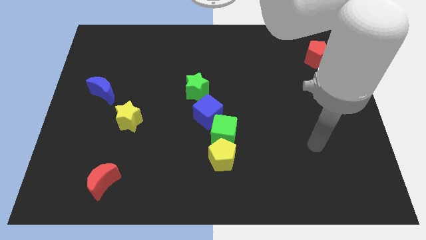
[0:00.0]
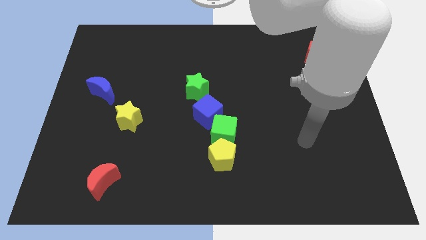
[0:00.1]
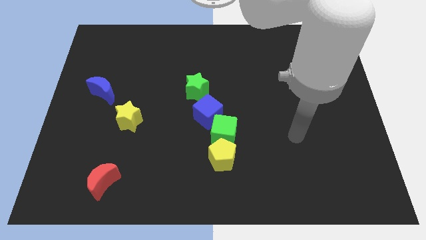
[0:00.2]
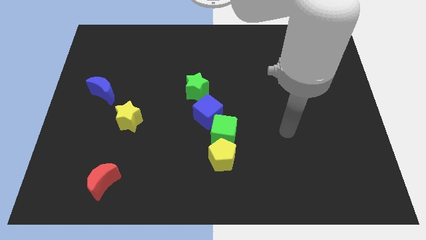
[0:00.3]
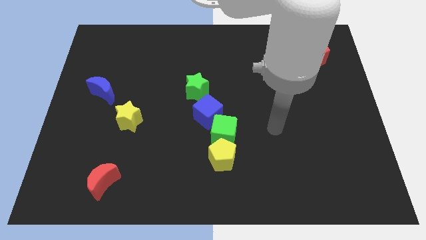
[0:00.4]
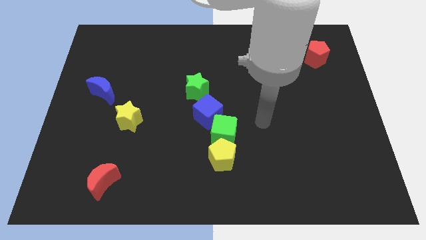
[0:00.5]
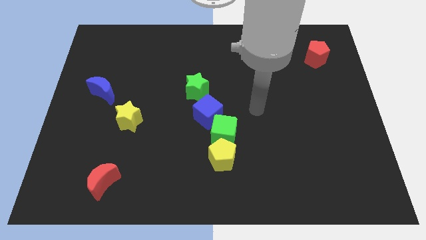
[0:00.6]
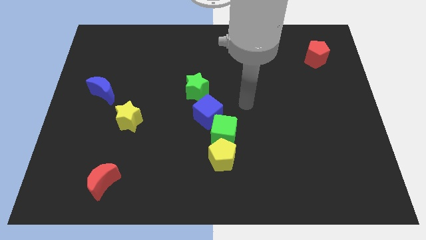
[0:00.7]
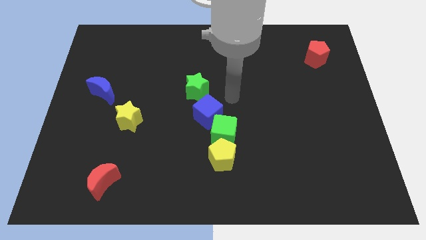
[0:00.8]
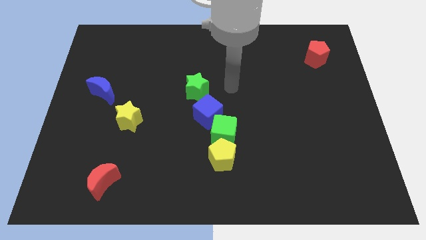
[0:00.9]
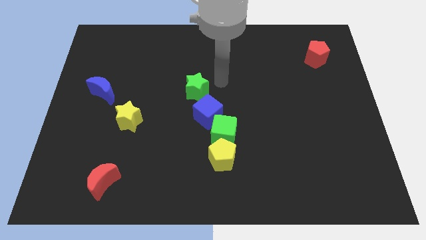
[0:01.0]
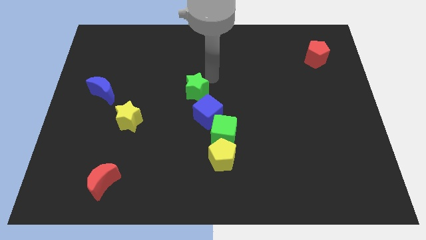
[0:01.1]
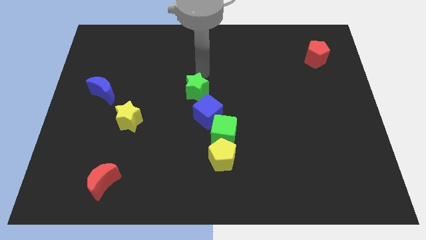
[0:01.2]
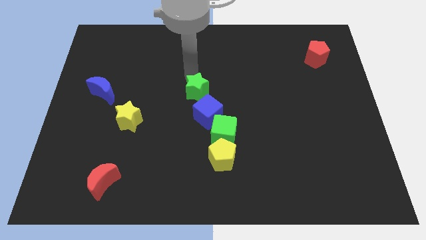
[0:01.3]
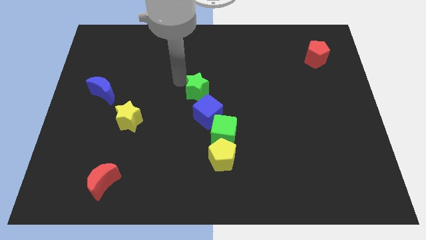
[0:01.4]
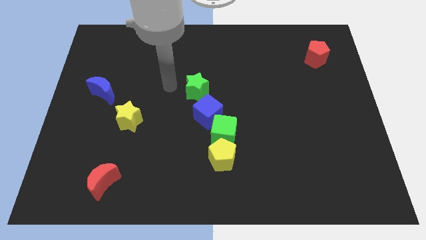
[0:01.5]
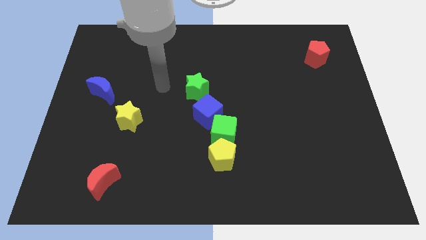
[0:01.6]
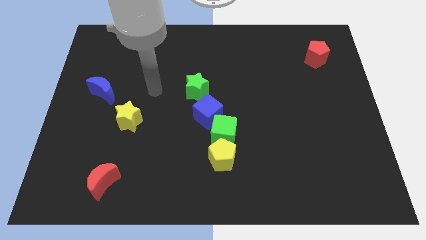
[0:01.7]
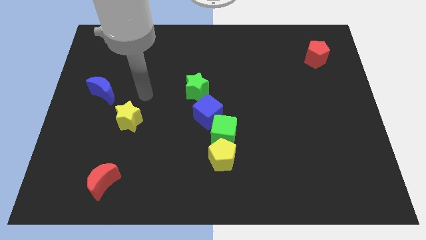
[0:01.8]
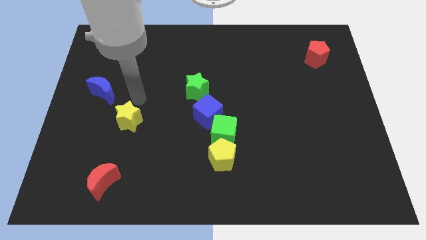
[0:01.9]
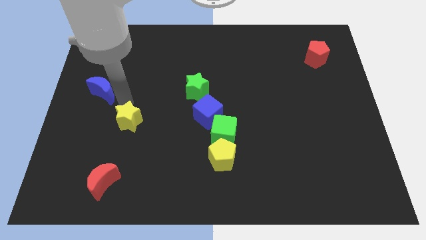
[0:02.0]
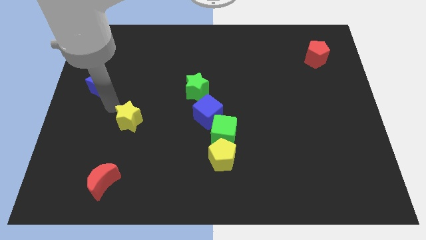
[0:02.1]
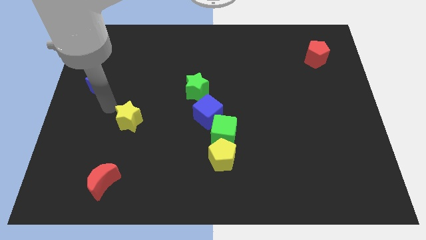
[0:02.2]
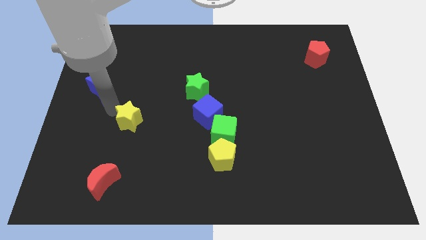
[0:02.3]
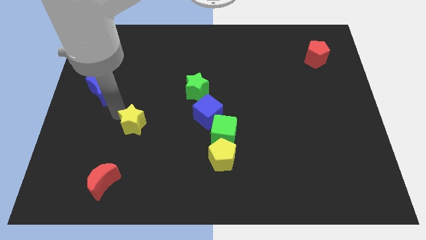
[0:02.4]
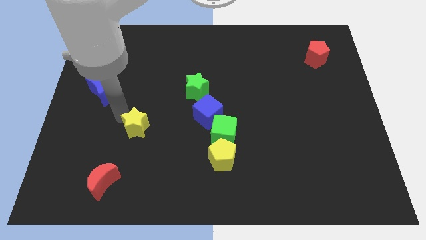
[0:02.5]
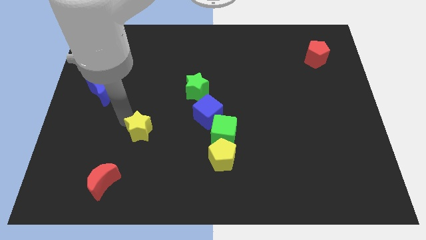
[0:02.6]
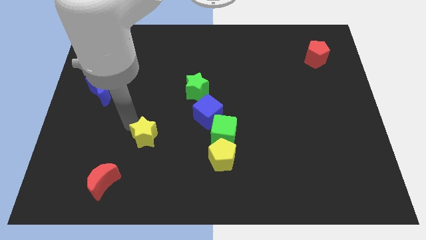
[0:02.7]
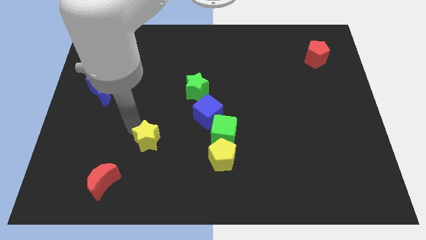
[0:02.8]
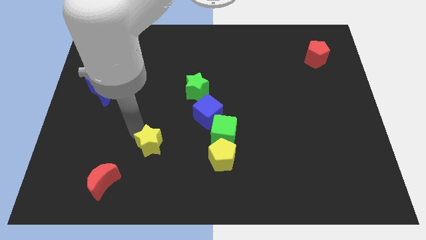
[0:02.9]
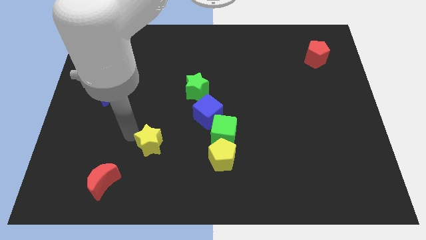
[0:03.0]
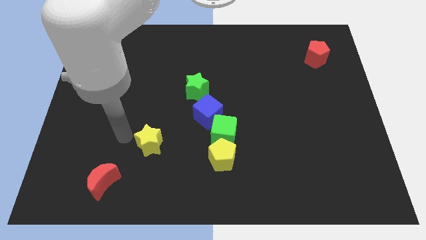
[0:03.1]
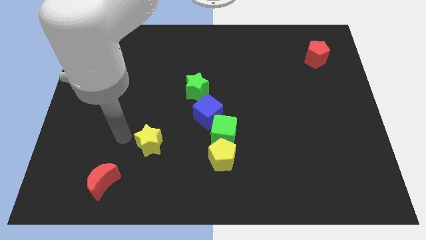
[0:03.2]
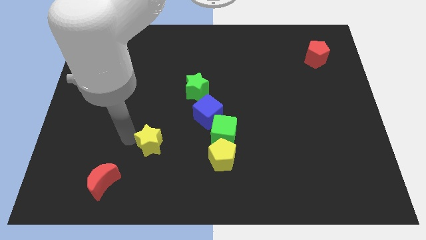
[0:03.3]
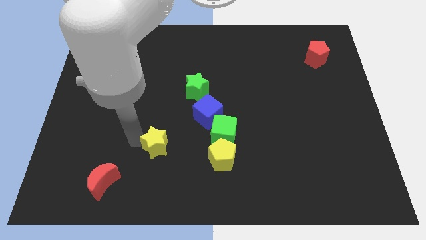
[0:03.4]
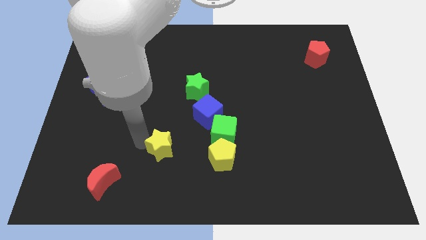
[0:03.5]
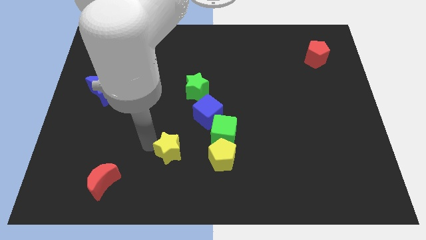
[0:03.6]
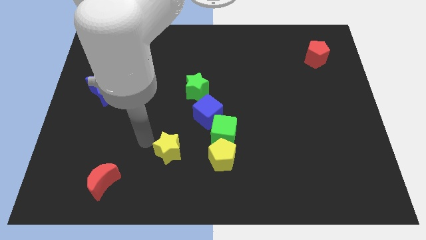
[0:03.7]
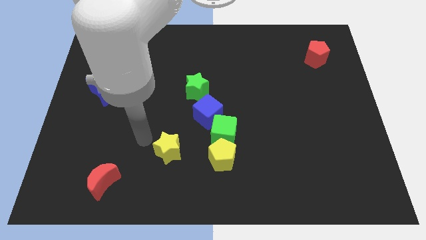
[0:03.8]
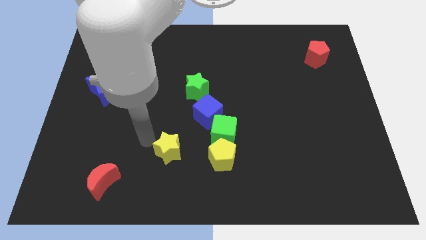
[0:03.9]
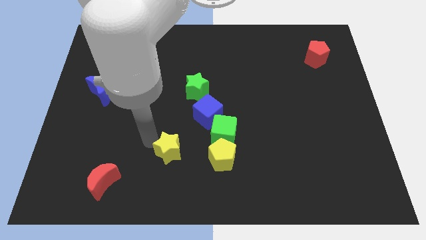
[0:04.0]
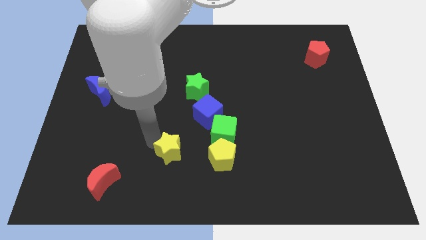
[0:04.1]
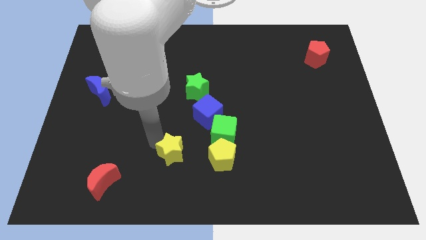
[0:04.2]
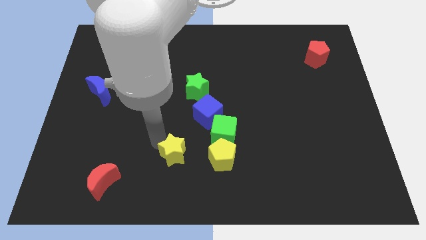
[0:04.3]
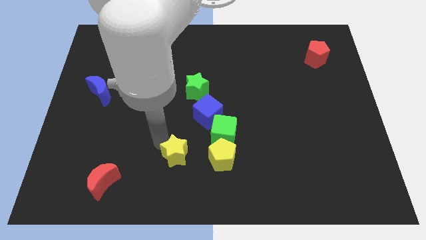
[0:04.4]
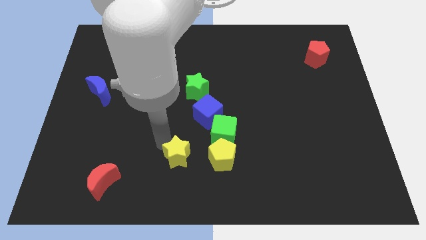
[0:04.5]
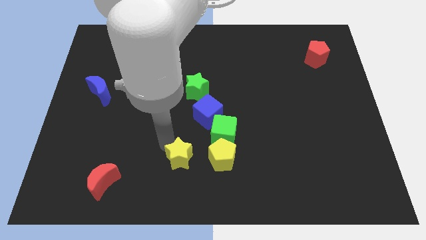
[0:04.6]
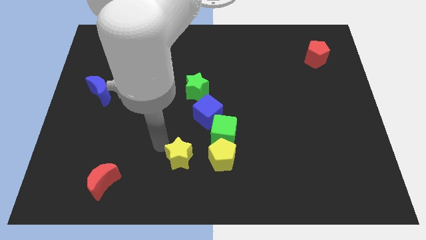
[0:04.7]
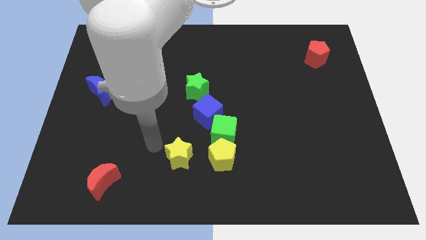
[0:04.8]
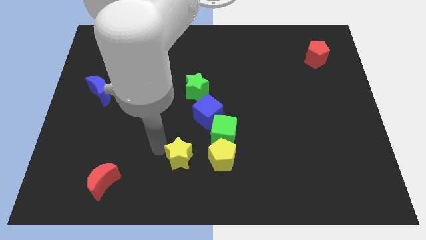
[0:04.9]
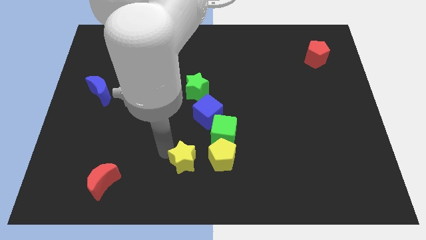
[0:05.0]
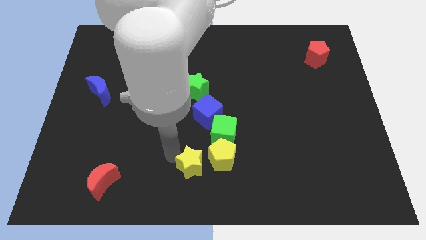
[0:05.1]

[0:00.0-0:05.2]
move the yellow star to the bottom of the blue cube
